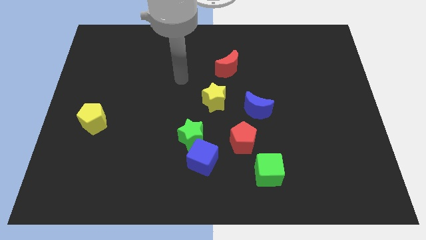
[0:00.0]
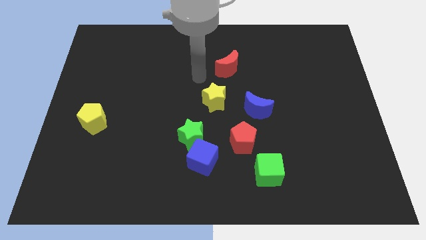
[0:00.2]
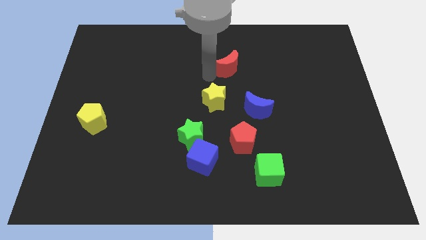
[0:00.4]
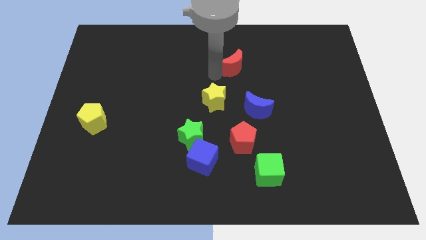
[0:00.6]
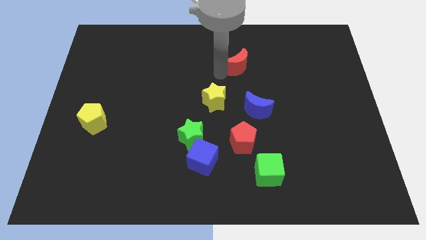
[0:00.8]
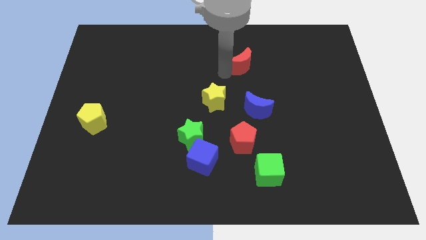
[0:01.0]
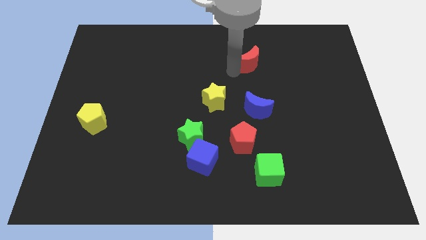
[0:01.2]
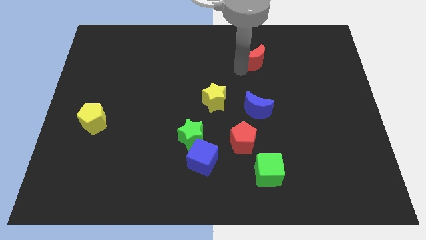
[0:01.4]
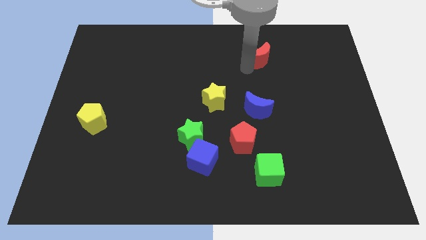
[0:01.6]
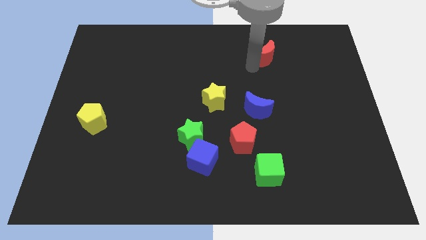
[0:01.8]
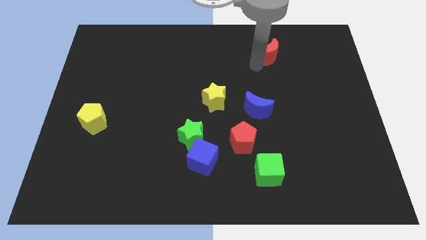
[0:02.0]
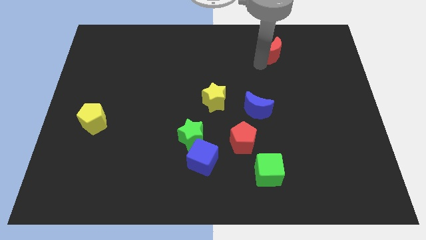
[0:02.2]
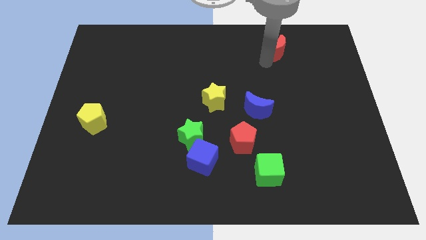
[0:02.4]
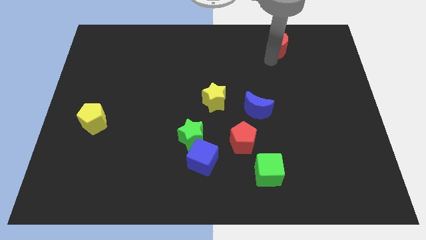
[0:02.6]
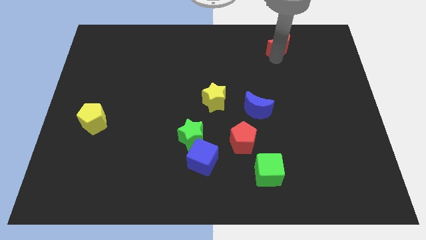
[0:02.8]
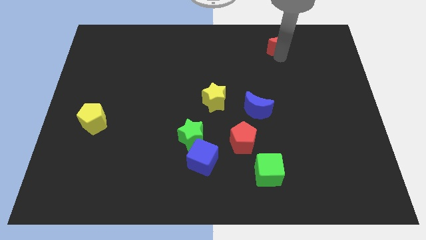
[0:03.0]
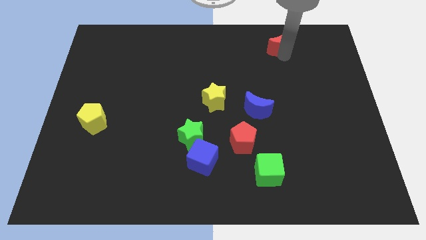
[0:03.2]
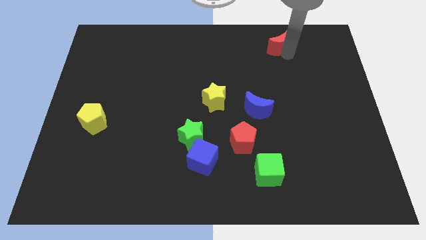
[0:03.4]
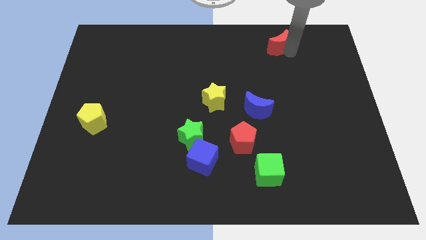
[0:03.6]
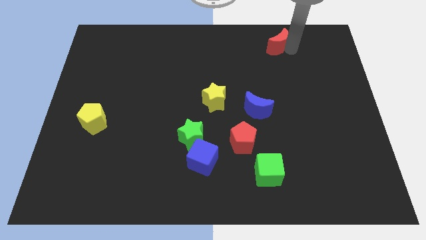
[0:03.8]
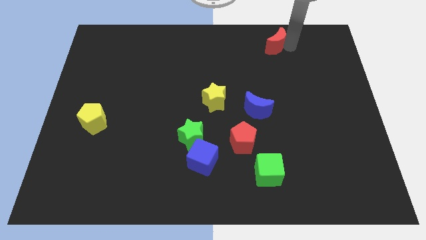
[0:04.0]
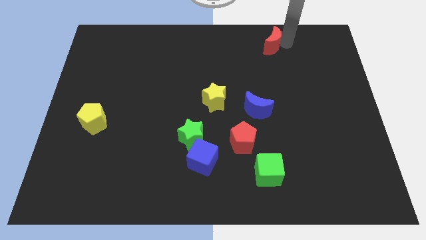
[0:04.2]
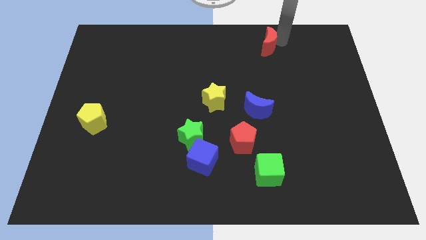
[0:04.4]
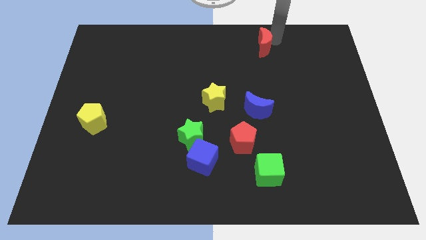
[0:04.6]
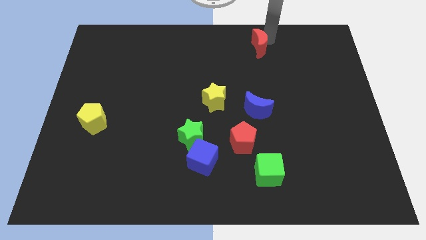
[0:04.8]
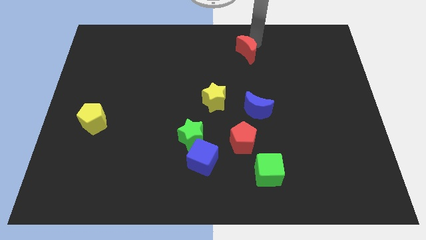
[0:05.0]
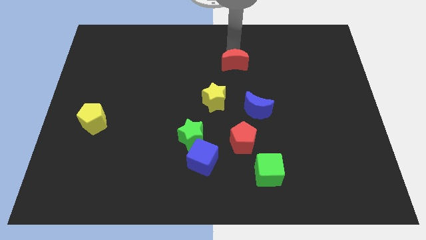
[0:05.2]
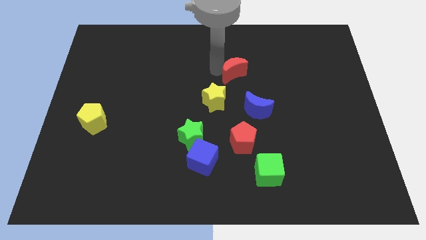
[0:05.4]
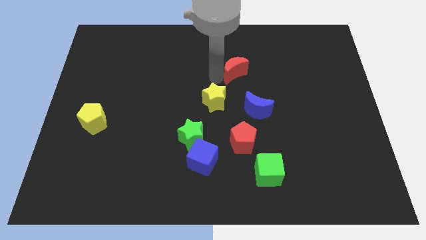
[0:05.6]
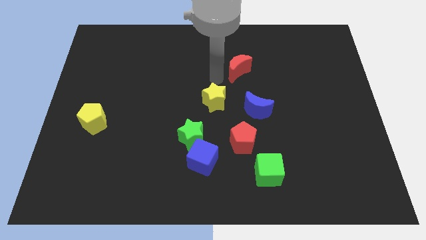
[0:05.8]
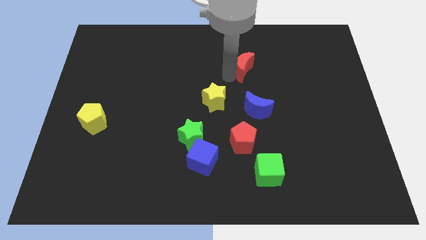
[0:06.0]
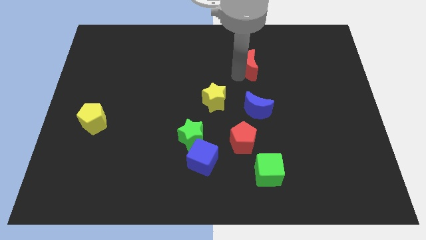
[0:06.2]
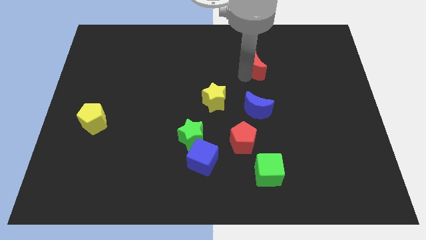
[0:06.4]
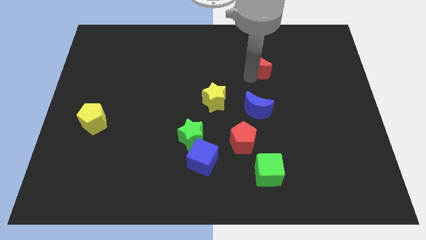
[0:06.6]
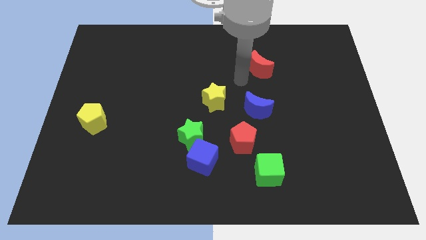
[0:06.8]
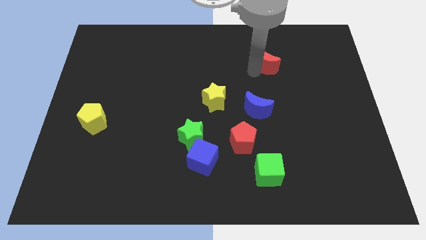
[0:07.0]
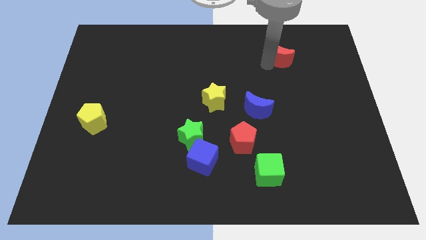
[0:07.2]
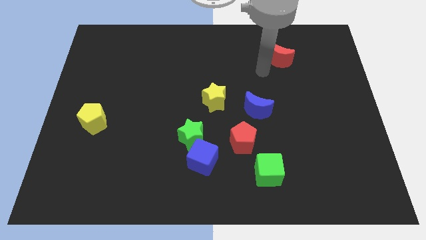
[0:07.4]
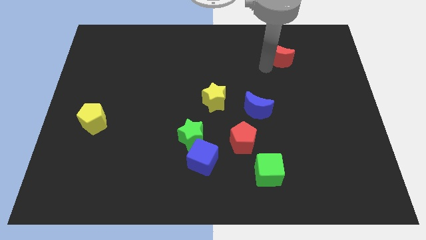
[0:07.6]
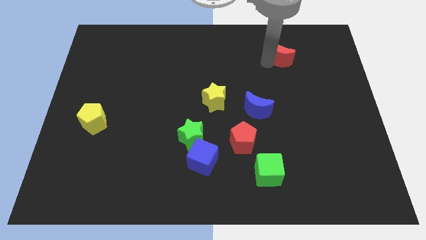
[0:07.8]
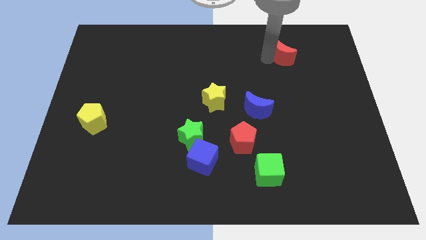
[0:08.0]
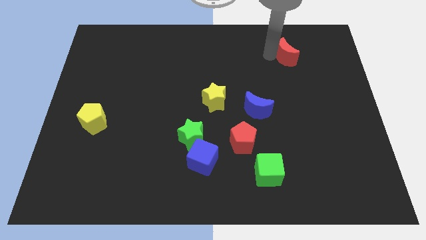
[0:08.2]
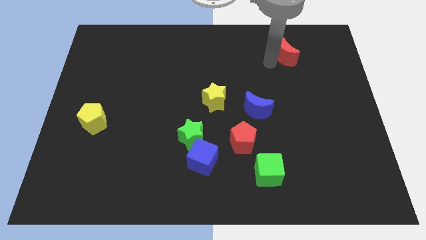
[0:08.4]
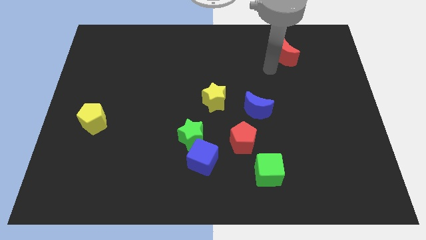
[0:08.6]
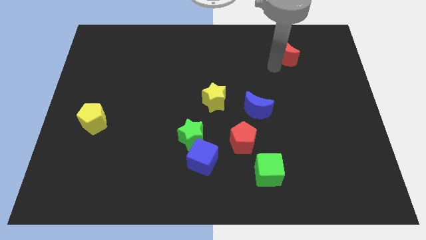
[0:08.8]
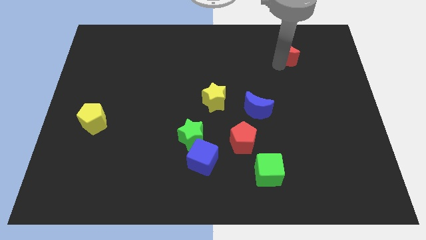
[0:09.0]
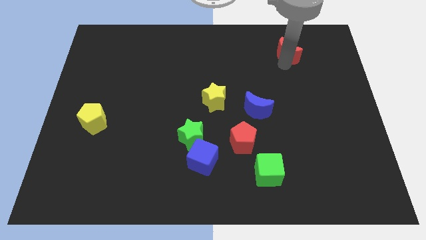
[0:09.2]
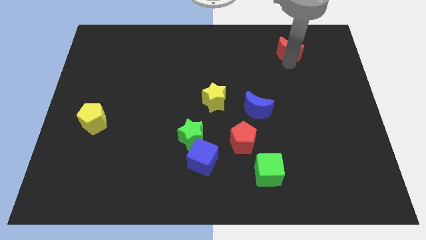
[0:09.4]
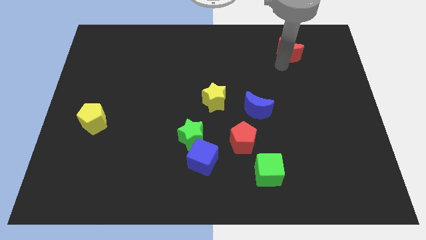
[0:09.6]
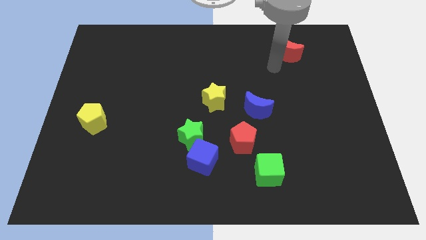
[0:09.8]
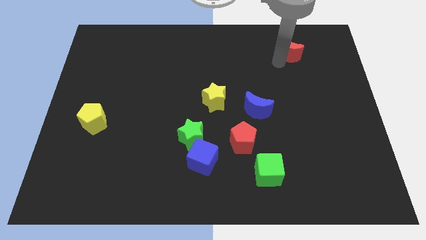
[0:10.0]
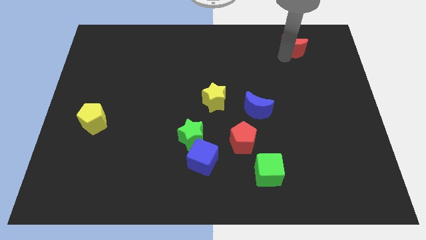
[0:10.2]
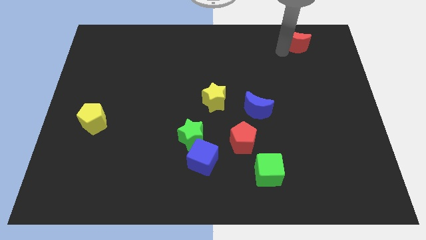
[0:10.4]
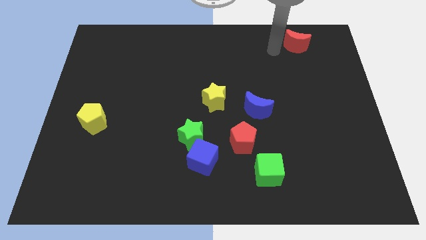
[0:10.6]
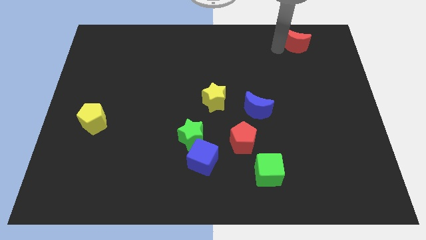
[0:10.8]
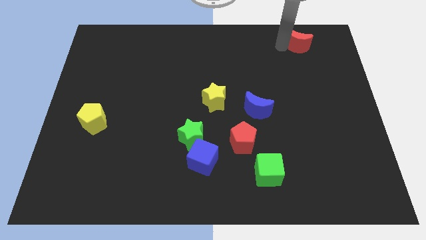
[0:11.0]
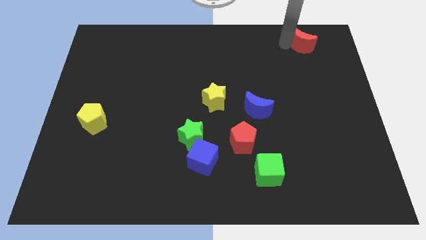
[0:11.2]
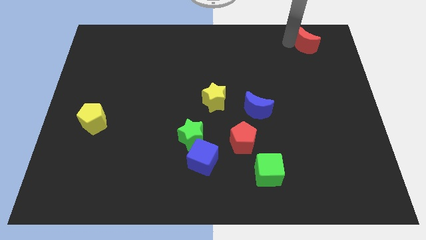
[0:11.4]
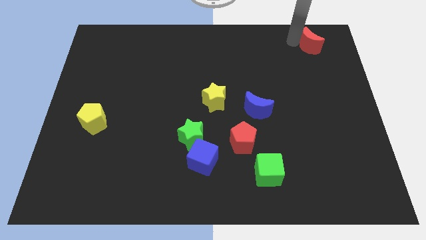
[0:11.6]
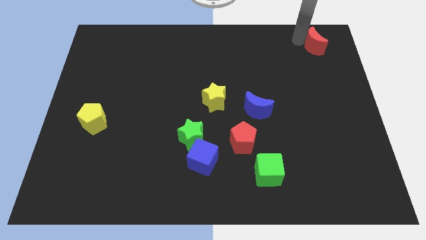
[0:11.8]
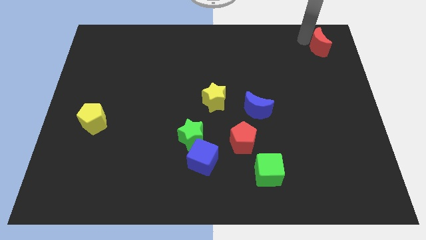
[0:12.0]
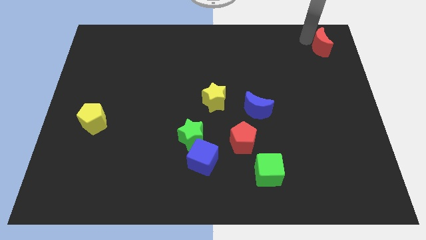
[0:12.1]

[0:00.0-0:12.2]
move the red moon to the top right of the board

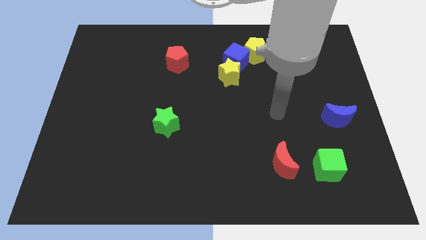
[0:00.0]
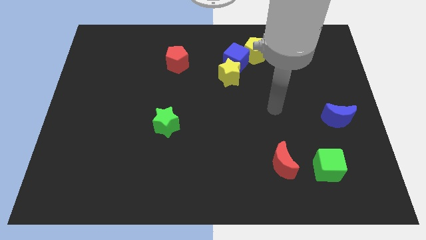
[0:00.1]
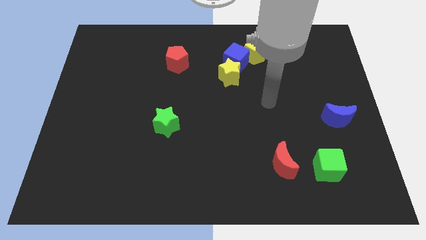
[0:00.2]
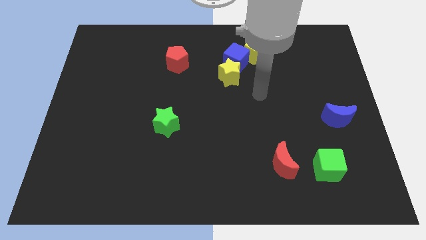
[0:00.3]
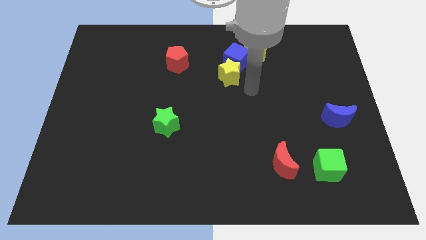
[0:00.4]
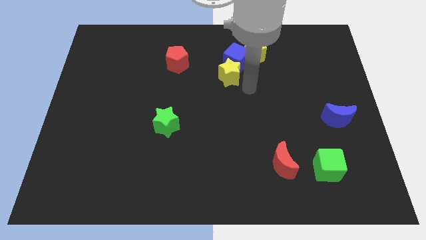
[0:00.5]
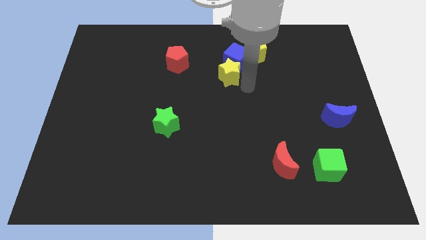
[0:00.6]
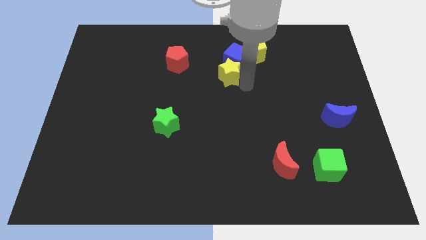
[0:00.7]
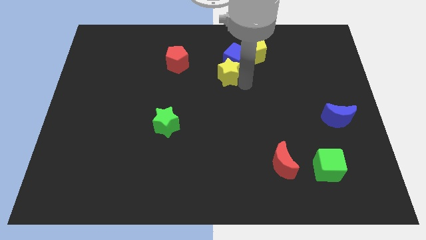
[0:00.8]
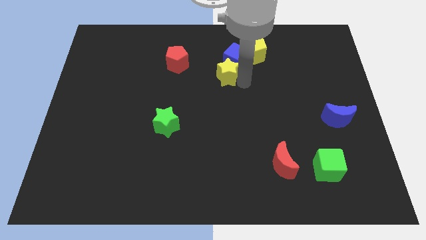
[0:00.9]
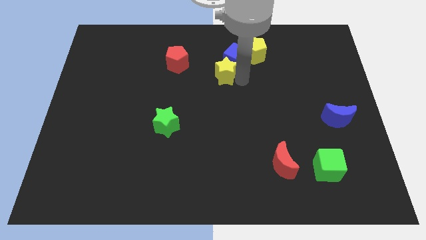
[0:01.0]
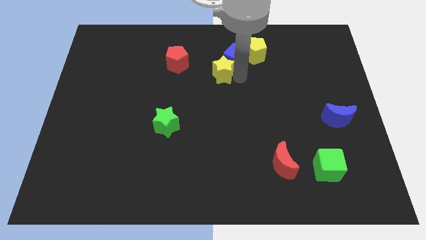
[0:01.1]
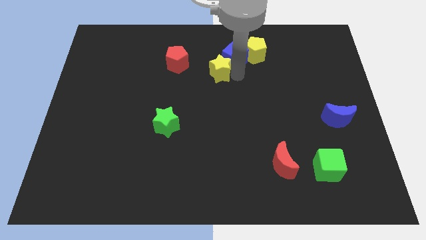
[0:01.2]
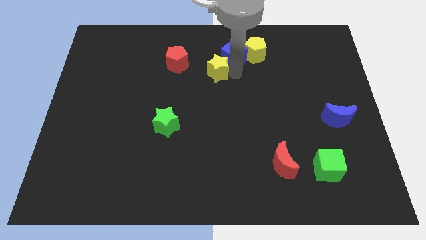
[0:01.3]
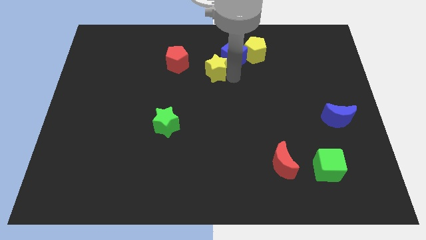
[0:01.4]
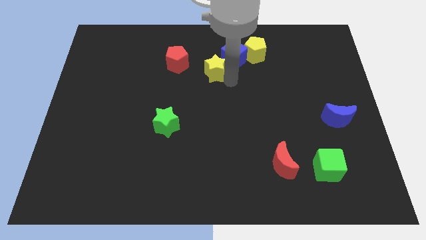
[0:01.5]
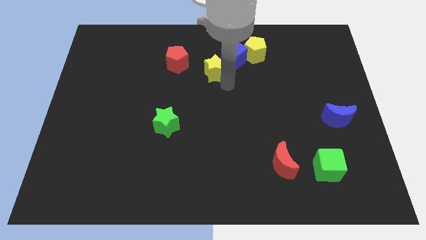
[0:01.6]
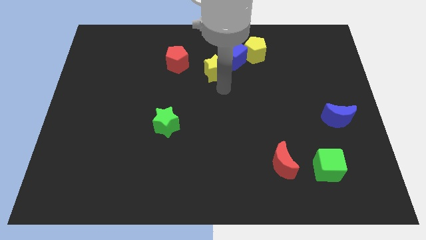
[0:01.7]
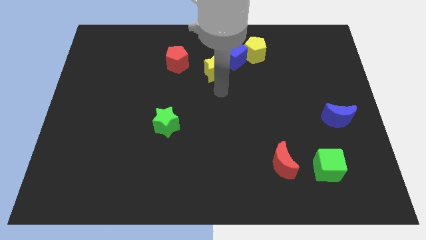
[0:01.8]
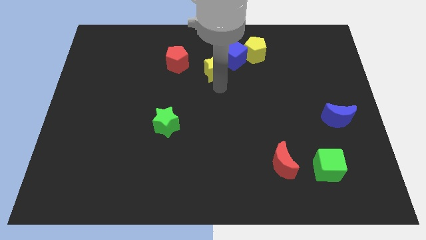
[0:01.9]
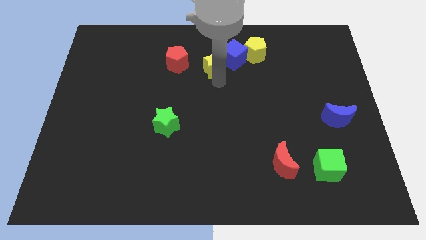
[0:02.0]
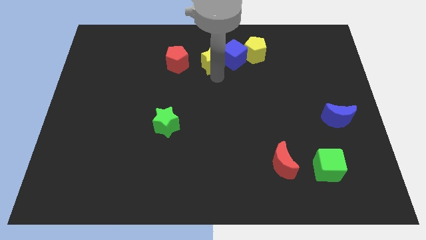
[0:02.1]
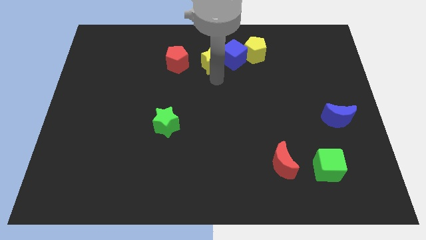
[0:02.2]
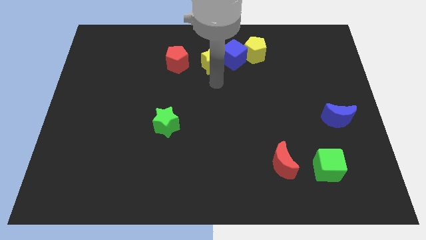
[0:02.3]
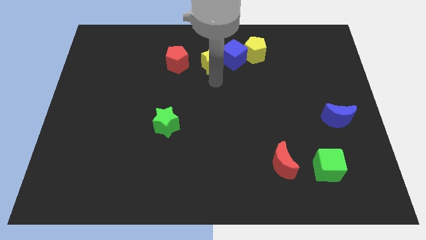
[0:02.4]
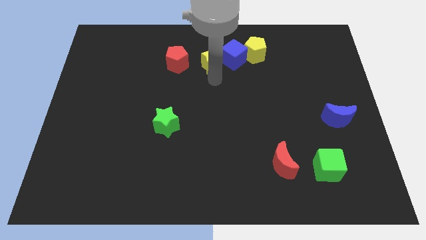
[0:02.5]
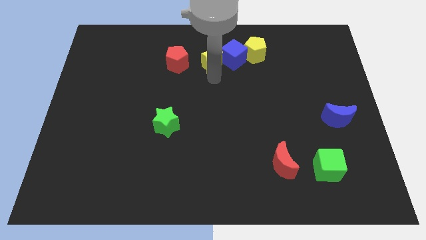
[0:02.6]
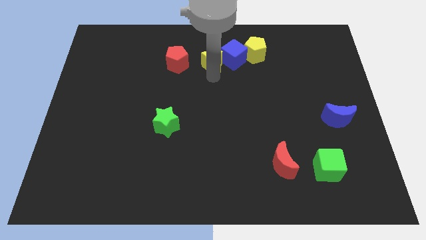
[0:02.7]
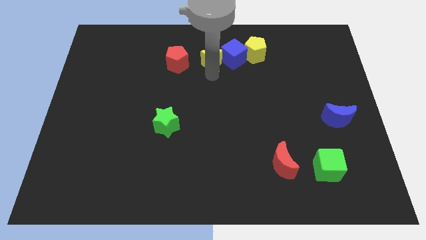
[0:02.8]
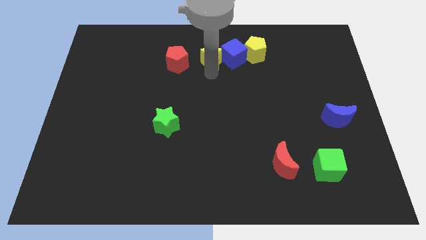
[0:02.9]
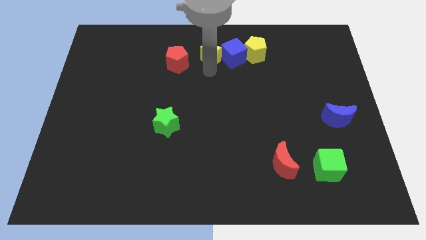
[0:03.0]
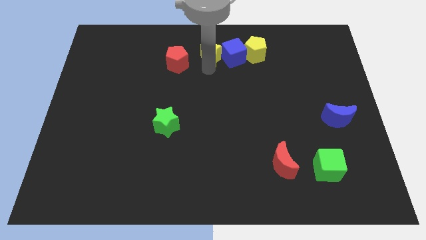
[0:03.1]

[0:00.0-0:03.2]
move the yellow star to the towards your base
